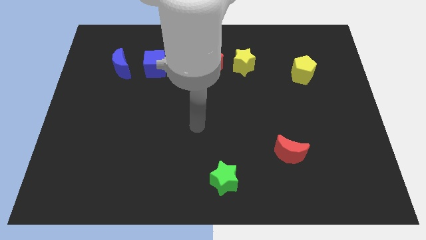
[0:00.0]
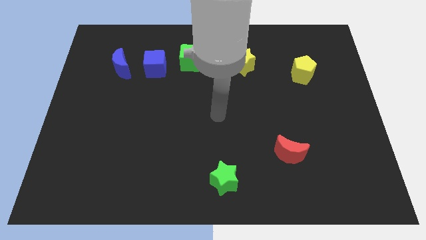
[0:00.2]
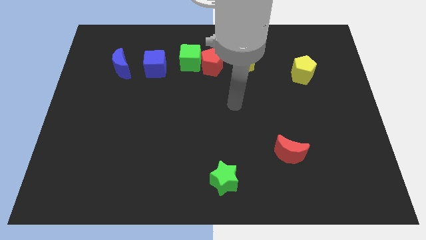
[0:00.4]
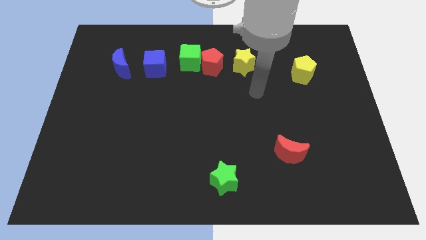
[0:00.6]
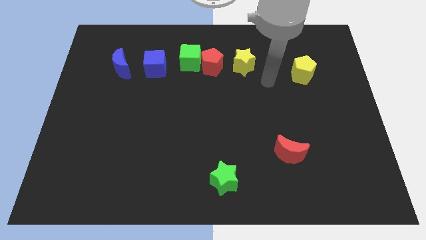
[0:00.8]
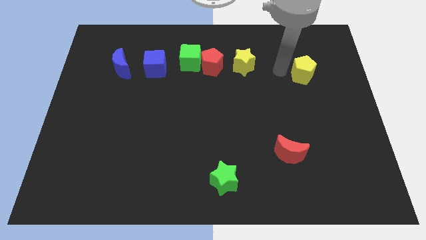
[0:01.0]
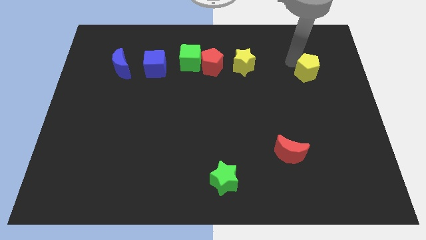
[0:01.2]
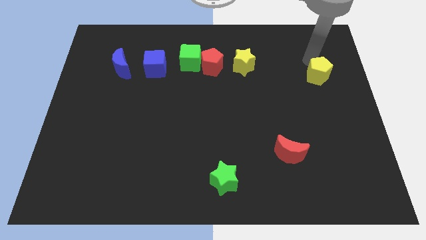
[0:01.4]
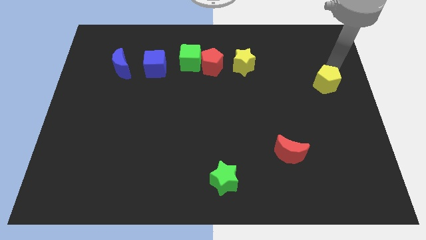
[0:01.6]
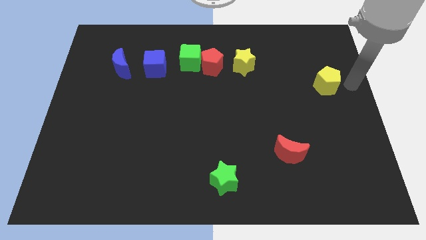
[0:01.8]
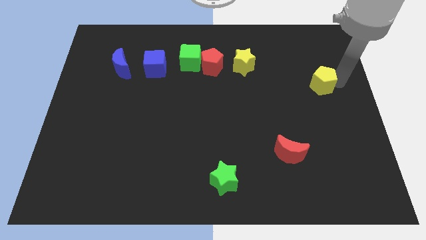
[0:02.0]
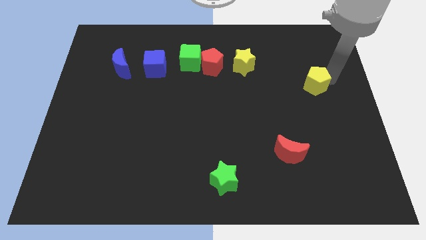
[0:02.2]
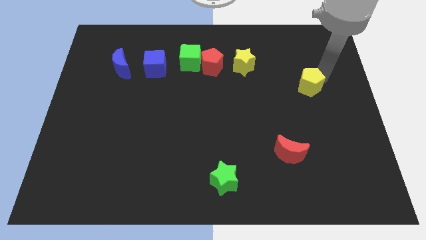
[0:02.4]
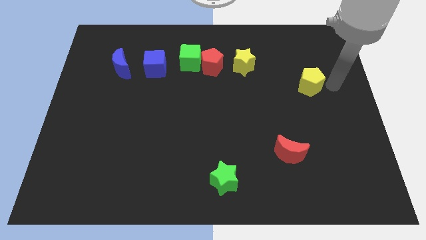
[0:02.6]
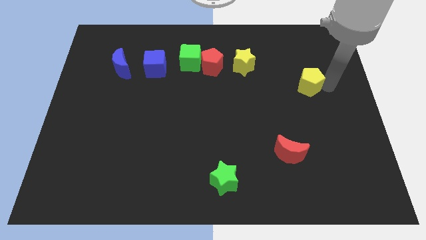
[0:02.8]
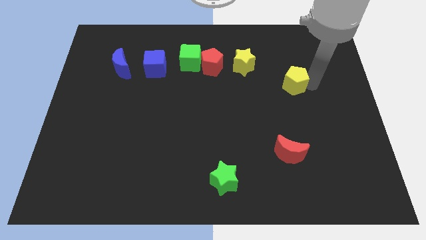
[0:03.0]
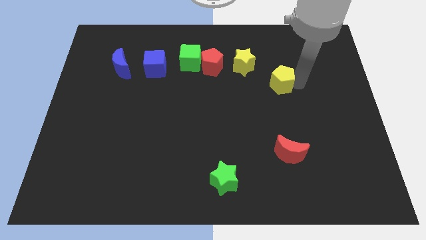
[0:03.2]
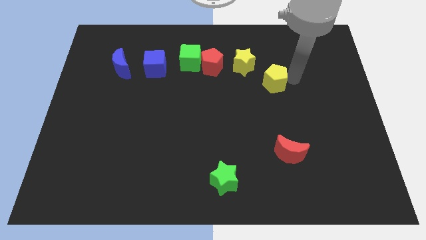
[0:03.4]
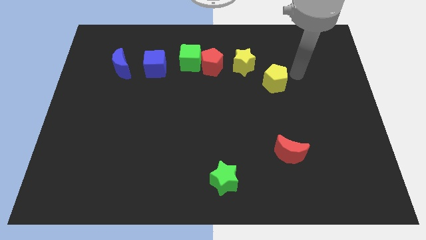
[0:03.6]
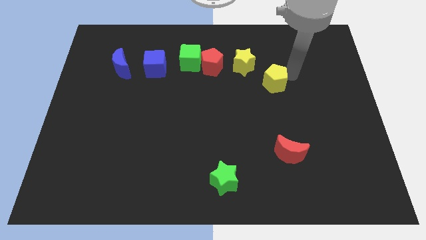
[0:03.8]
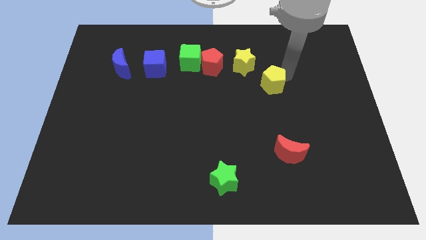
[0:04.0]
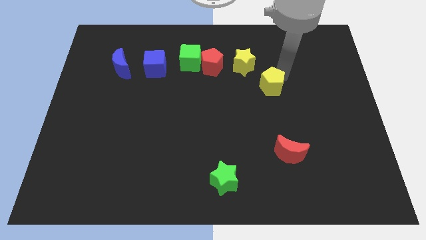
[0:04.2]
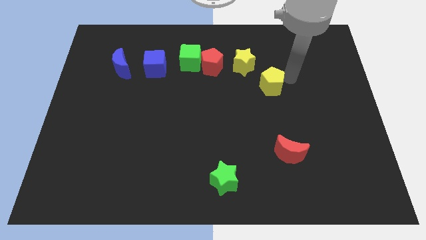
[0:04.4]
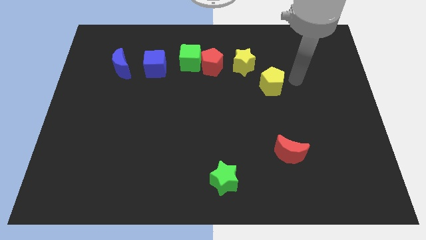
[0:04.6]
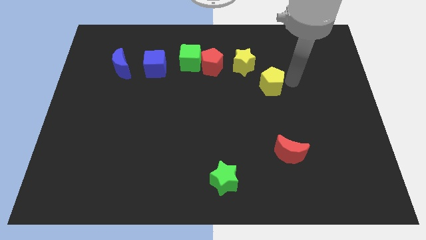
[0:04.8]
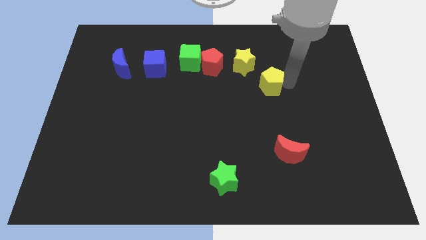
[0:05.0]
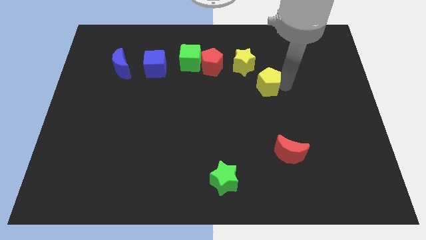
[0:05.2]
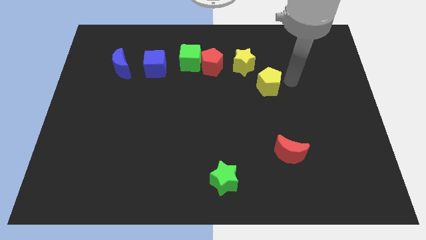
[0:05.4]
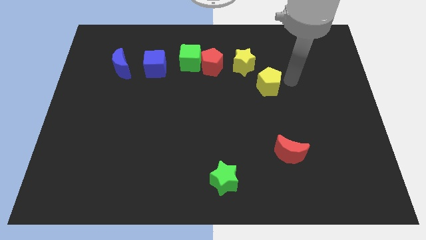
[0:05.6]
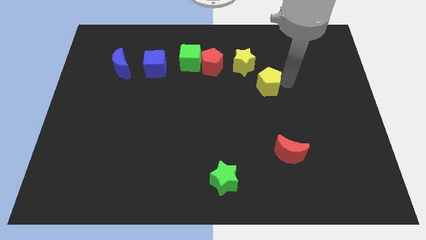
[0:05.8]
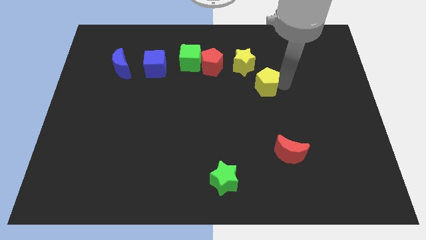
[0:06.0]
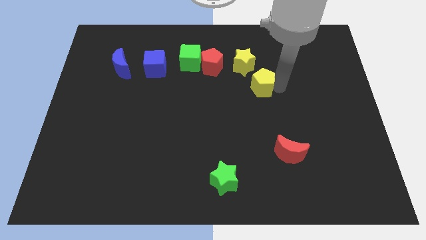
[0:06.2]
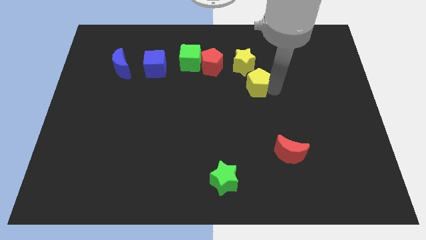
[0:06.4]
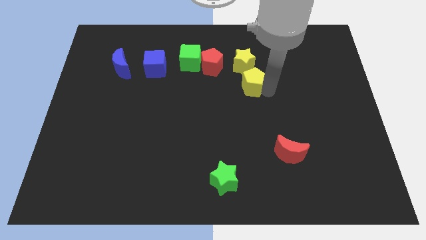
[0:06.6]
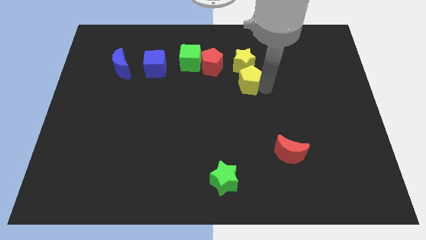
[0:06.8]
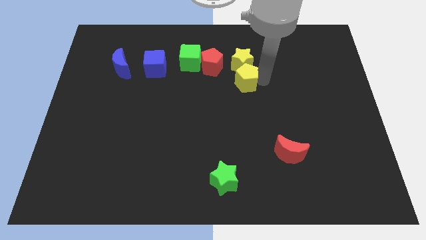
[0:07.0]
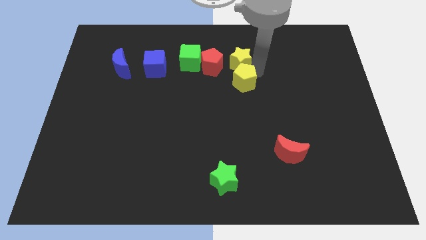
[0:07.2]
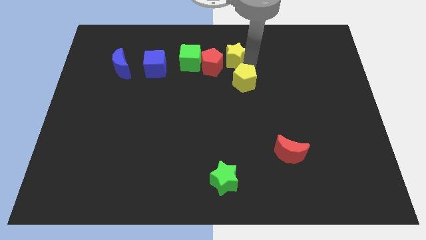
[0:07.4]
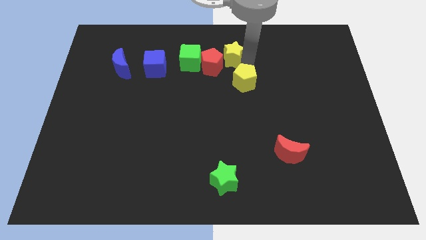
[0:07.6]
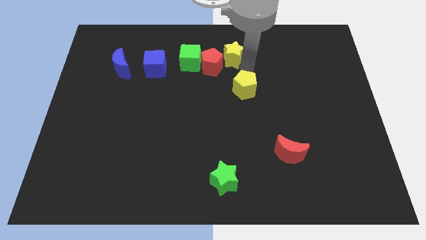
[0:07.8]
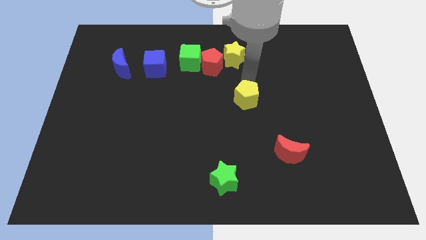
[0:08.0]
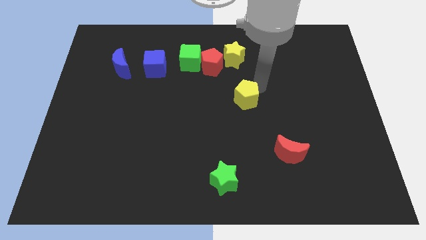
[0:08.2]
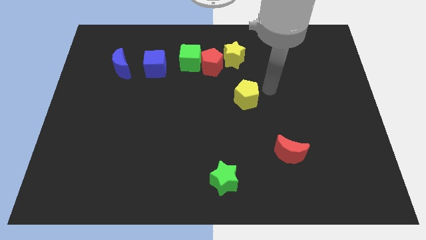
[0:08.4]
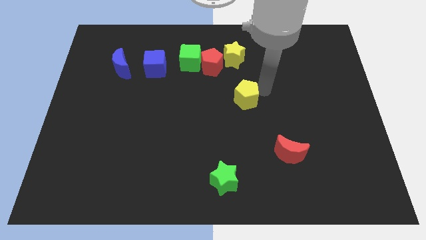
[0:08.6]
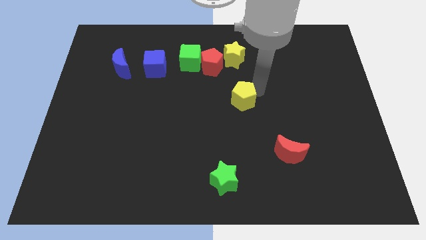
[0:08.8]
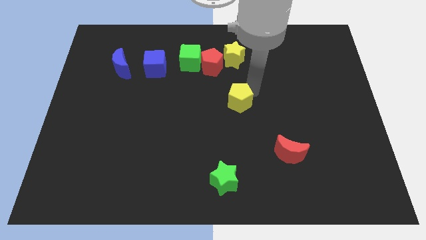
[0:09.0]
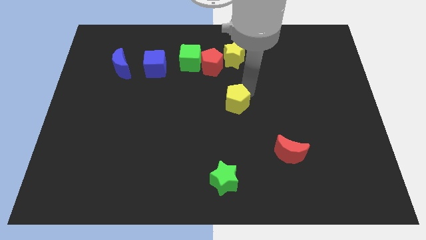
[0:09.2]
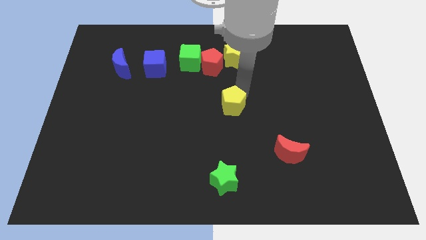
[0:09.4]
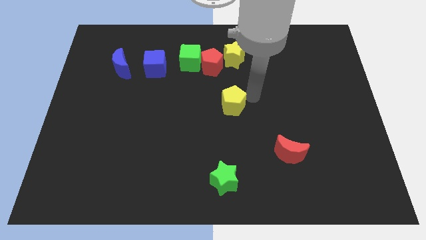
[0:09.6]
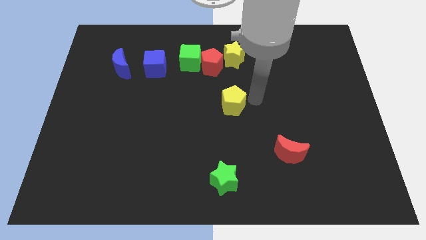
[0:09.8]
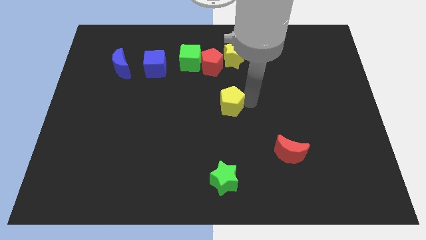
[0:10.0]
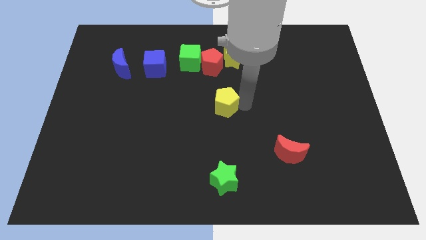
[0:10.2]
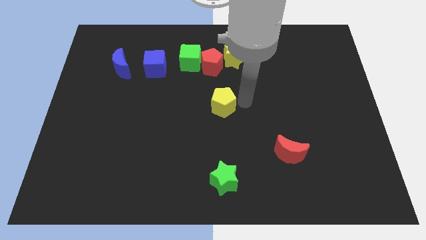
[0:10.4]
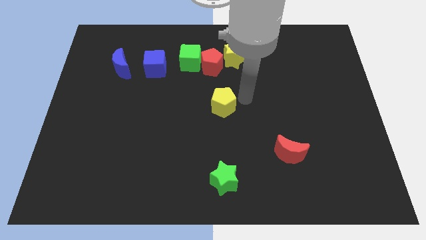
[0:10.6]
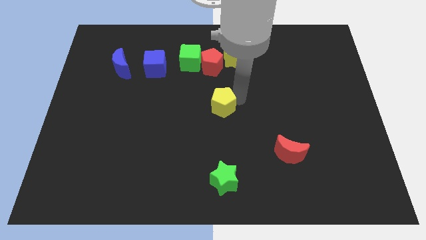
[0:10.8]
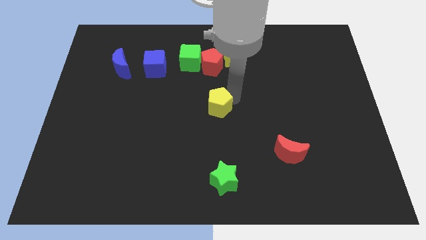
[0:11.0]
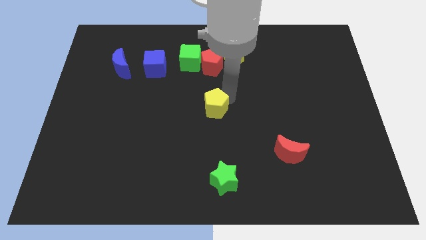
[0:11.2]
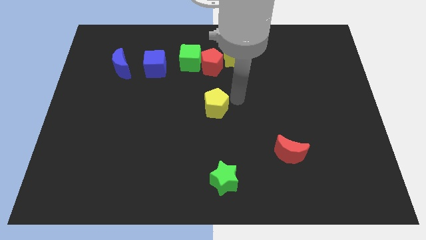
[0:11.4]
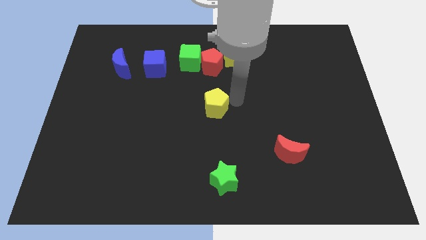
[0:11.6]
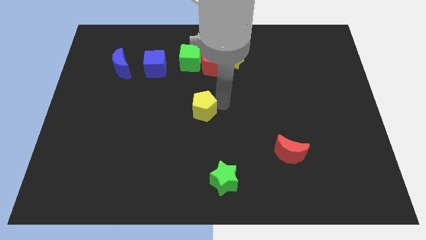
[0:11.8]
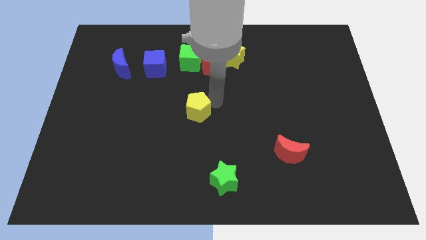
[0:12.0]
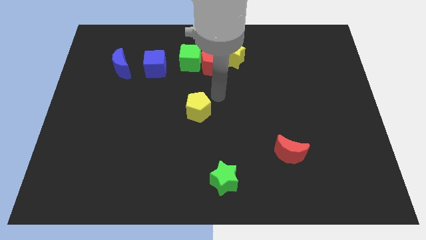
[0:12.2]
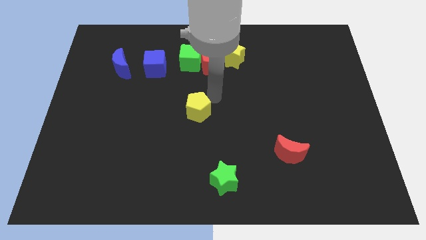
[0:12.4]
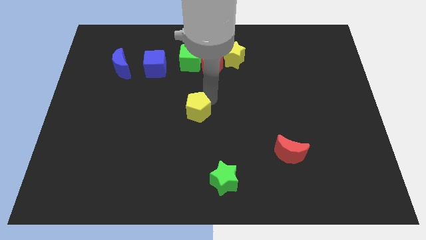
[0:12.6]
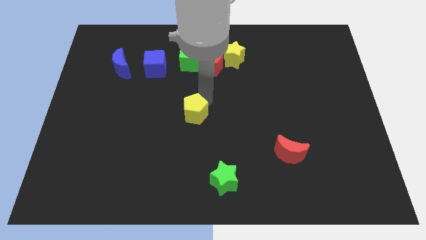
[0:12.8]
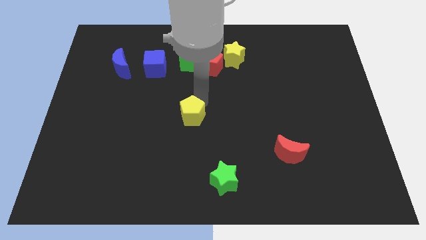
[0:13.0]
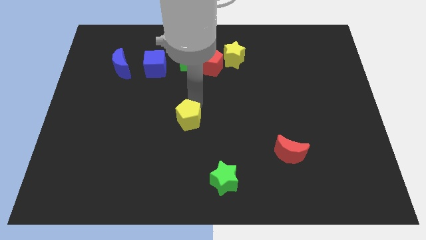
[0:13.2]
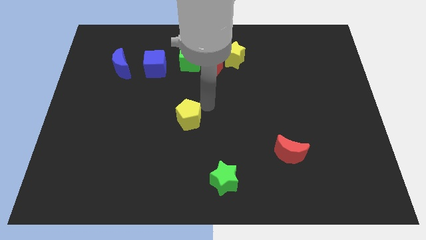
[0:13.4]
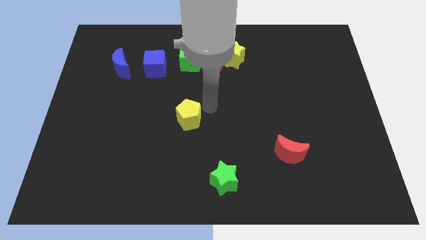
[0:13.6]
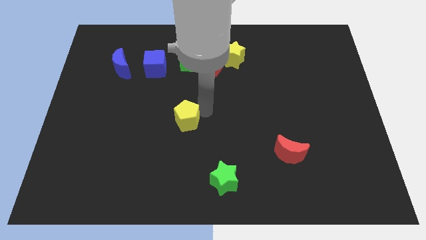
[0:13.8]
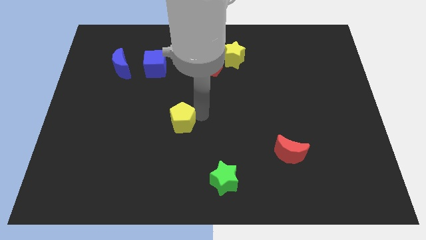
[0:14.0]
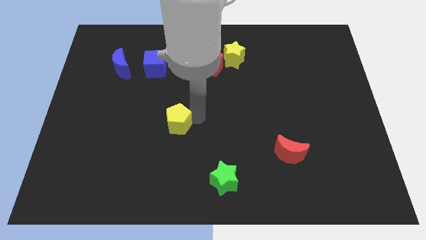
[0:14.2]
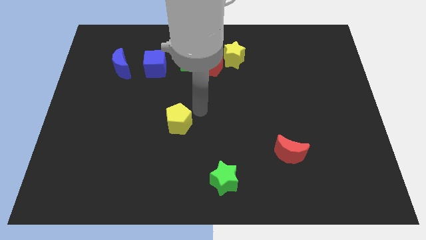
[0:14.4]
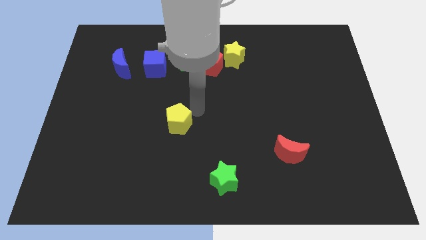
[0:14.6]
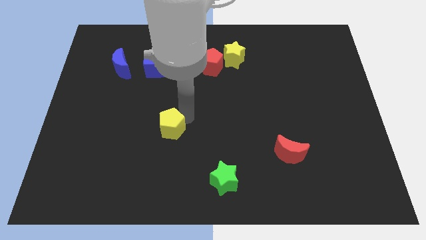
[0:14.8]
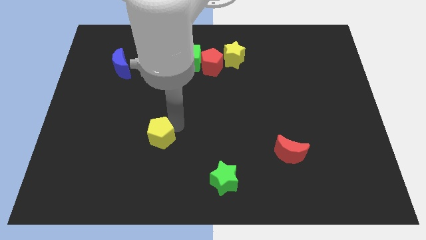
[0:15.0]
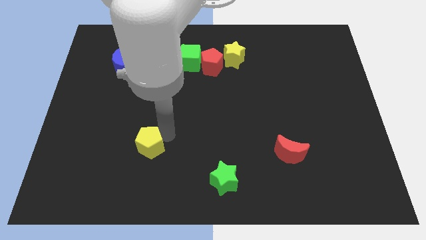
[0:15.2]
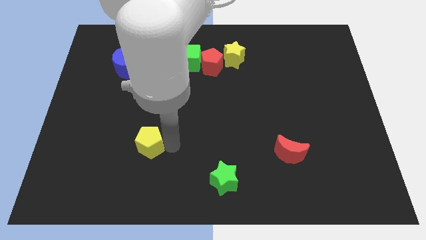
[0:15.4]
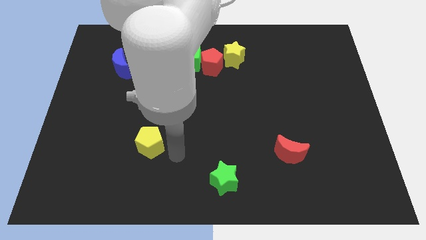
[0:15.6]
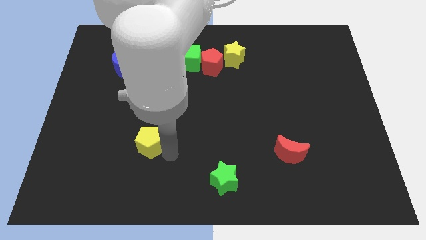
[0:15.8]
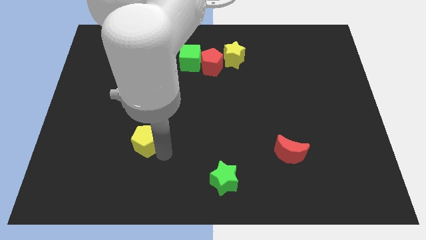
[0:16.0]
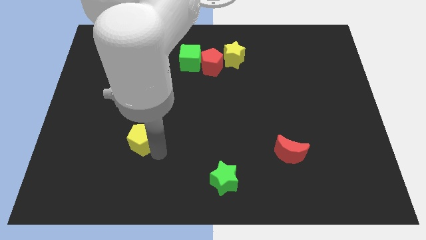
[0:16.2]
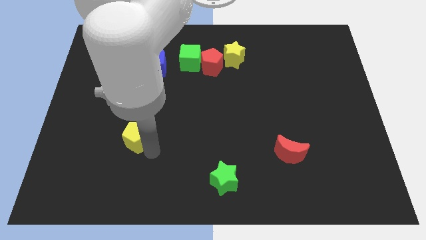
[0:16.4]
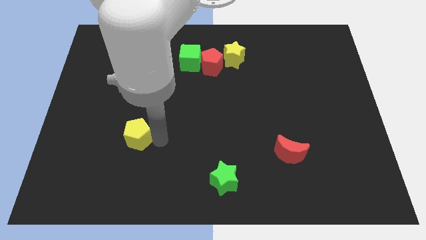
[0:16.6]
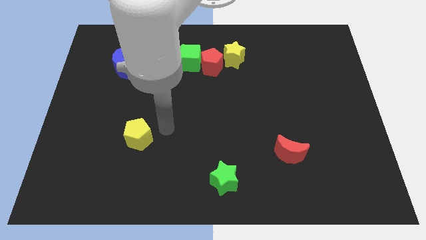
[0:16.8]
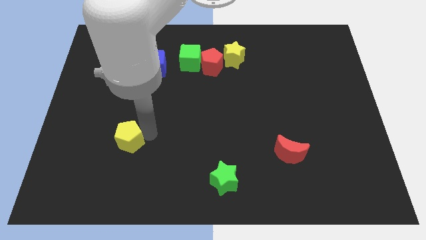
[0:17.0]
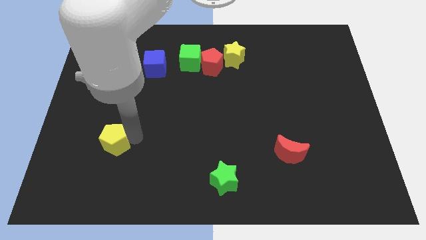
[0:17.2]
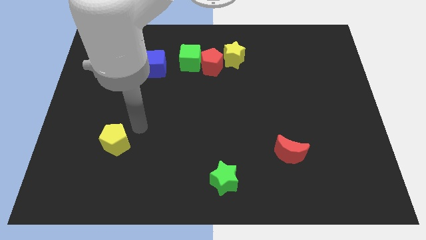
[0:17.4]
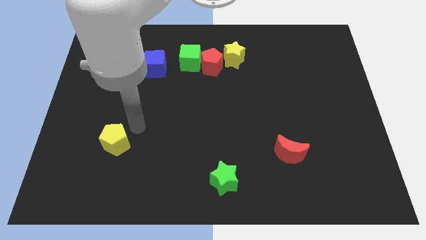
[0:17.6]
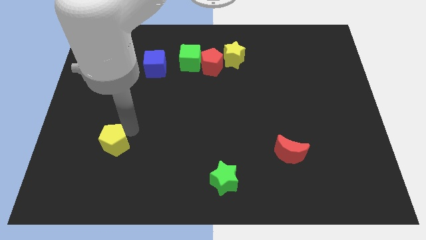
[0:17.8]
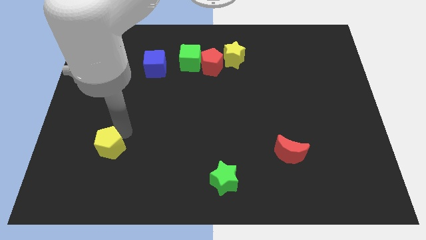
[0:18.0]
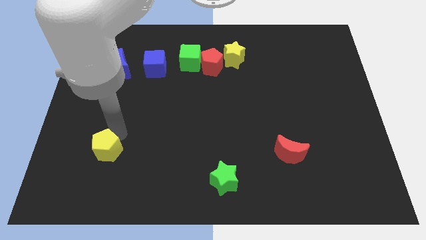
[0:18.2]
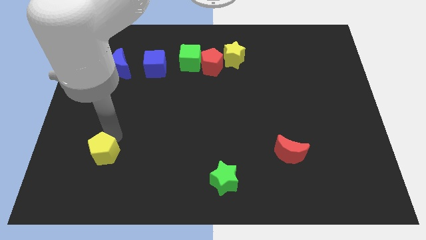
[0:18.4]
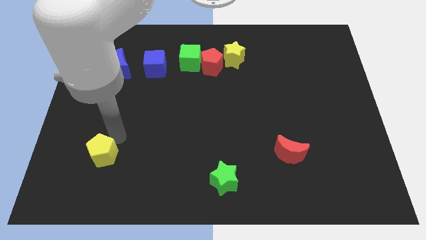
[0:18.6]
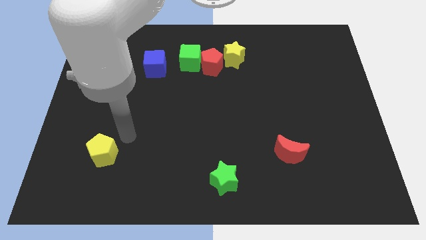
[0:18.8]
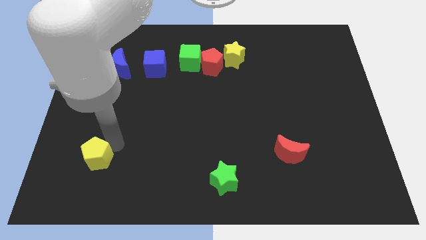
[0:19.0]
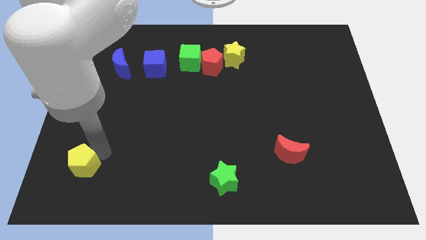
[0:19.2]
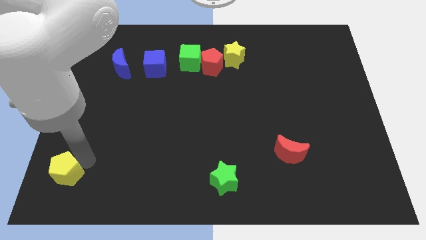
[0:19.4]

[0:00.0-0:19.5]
move the yellow pentagon to the bottom left of the board
